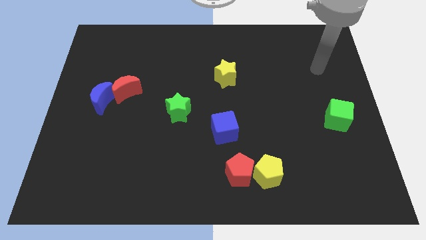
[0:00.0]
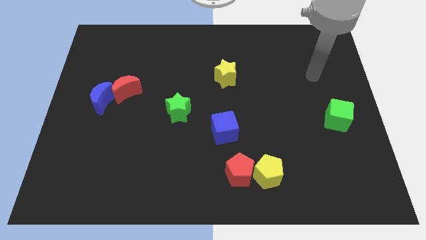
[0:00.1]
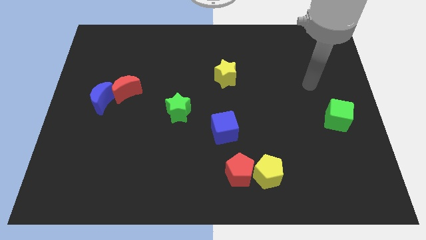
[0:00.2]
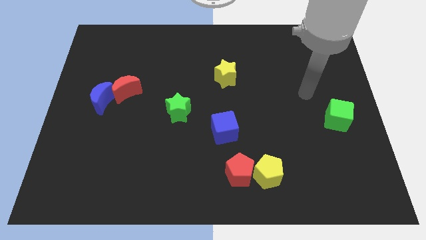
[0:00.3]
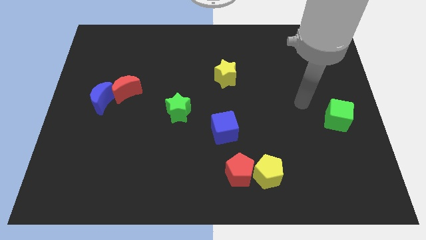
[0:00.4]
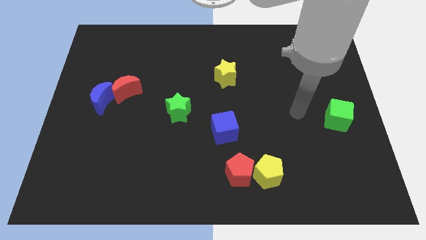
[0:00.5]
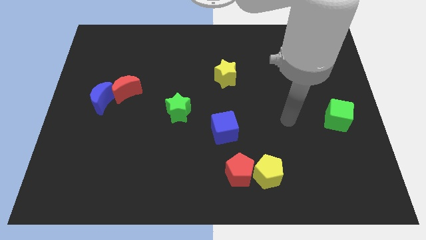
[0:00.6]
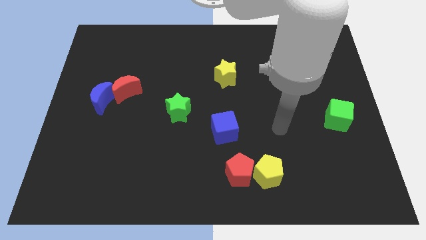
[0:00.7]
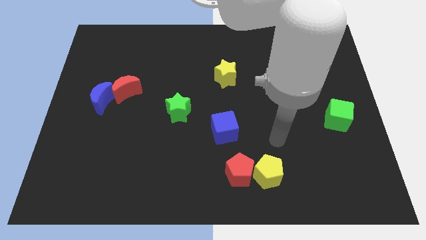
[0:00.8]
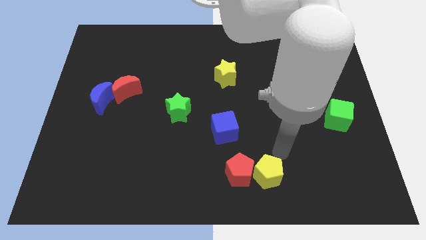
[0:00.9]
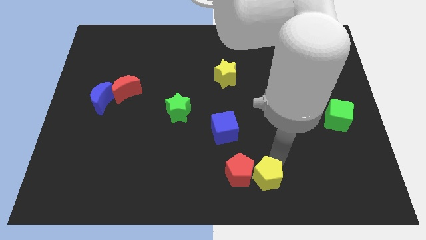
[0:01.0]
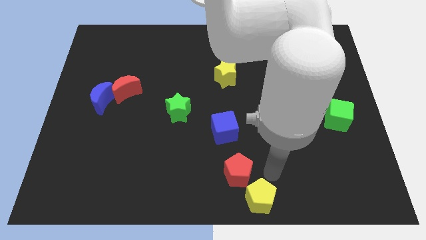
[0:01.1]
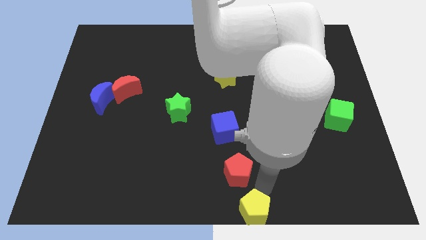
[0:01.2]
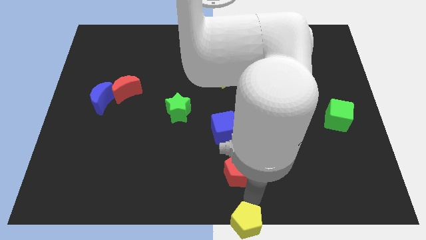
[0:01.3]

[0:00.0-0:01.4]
pull the red pentagon apart from the yellow pentagon

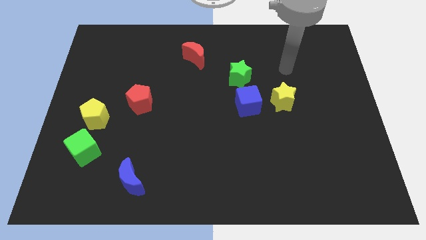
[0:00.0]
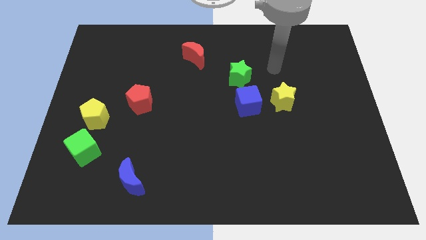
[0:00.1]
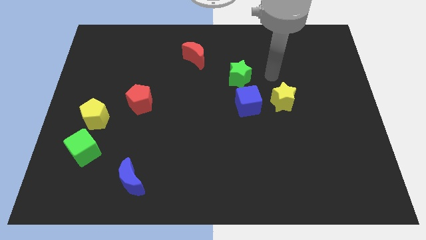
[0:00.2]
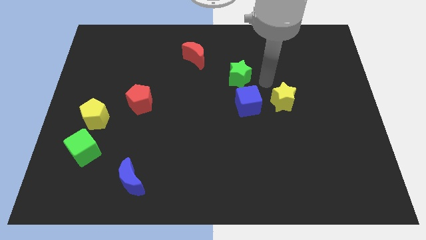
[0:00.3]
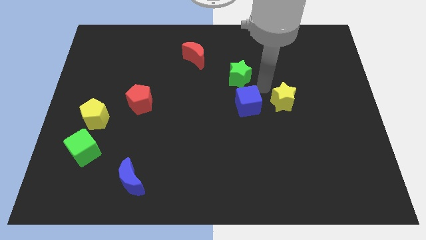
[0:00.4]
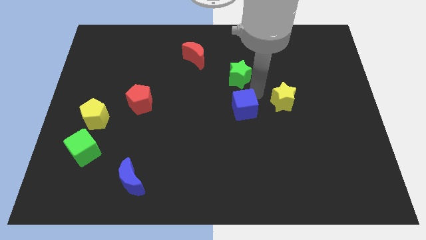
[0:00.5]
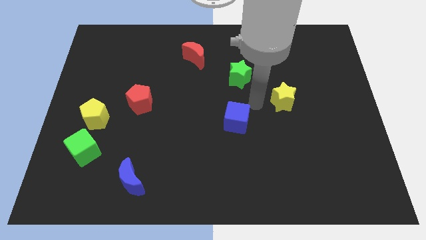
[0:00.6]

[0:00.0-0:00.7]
move the yellow star away from the blue cube

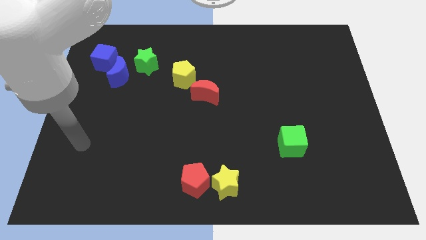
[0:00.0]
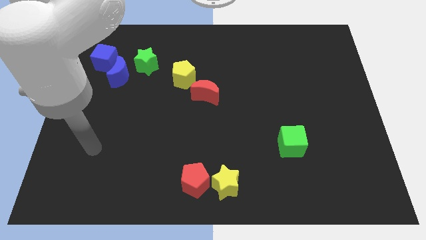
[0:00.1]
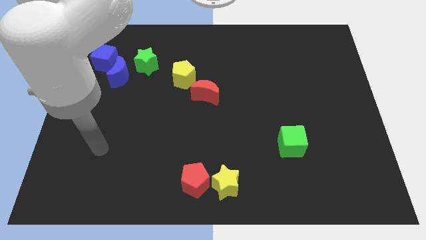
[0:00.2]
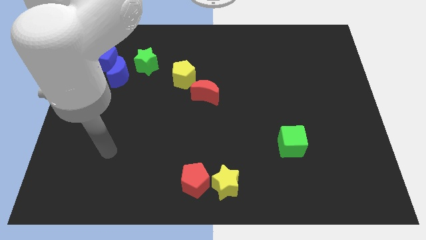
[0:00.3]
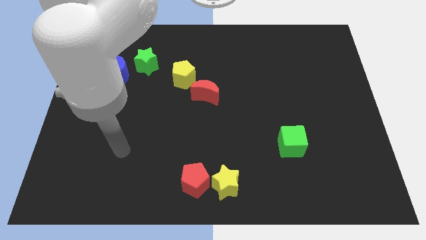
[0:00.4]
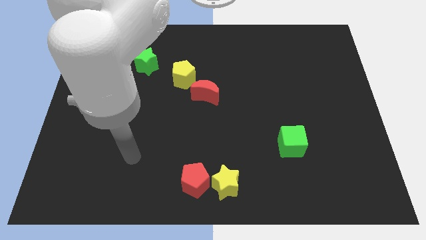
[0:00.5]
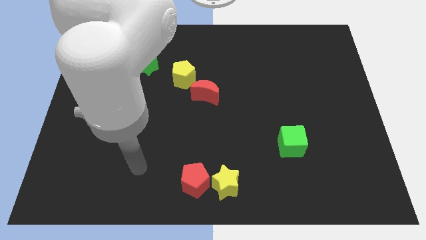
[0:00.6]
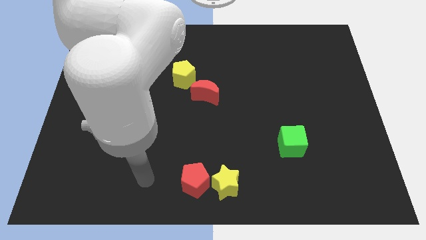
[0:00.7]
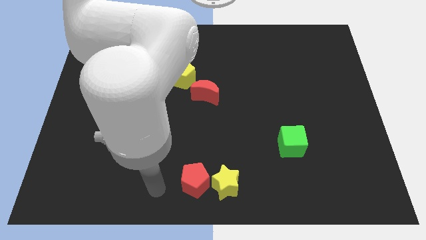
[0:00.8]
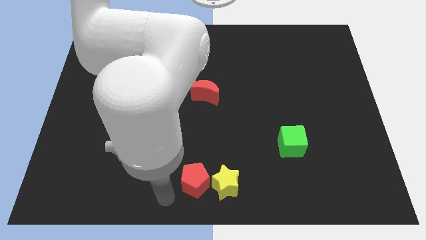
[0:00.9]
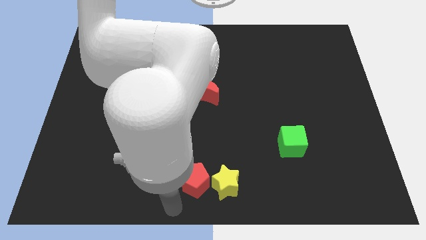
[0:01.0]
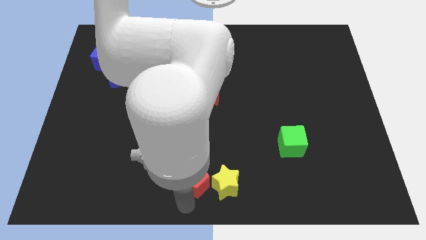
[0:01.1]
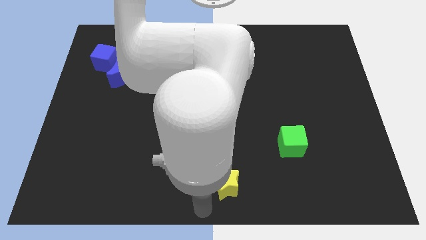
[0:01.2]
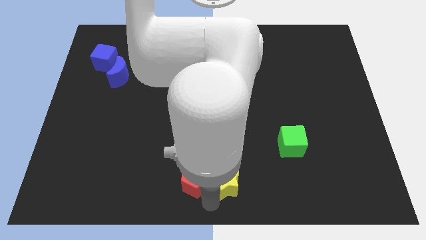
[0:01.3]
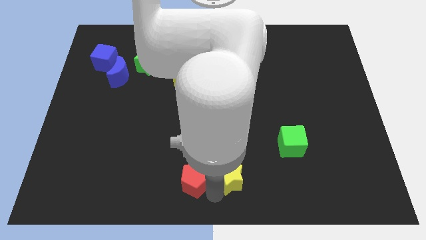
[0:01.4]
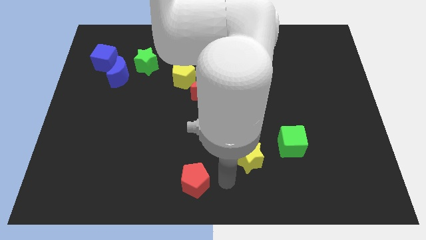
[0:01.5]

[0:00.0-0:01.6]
move the red pentagon away from the yellow star

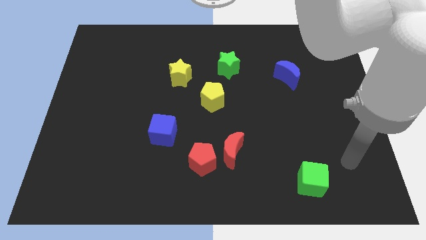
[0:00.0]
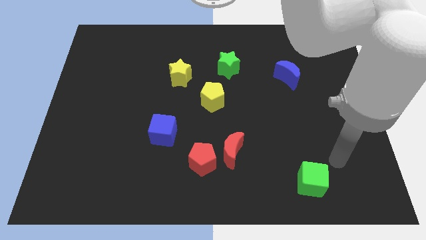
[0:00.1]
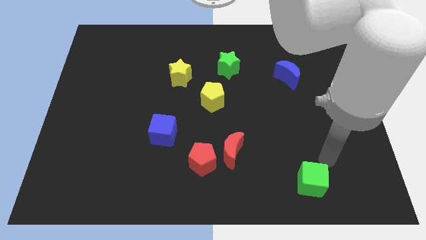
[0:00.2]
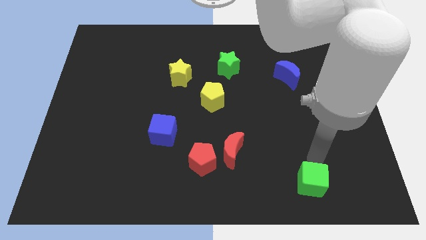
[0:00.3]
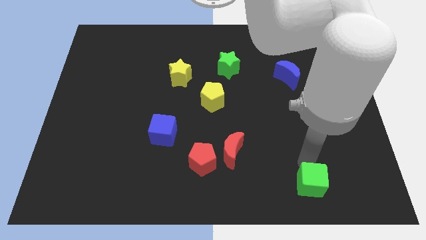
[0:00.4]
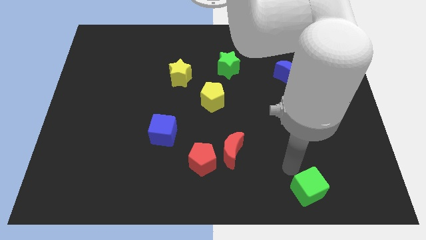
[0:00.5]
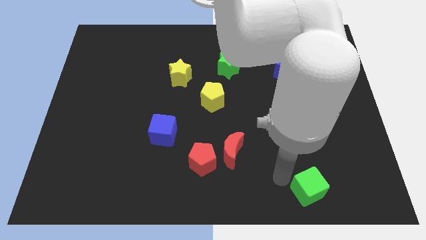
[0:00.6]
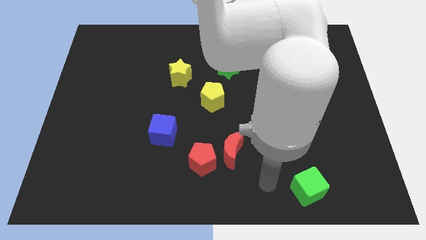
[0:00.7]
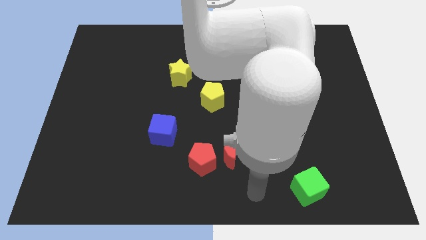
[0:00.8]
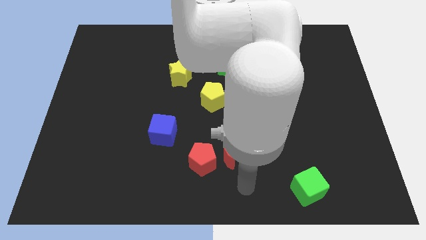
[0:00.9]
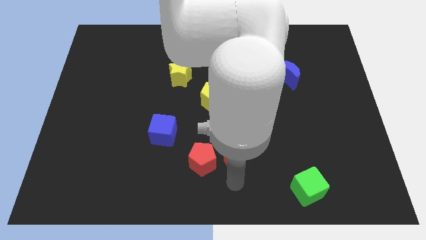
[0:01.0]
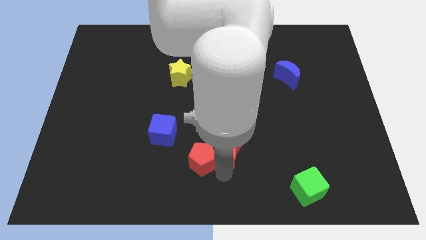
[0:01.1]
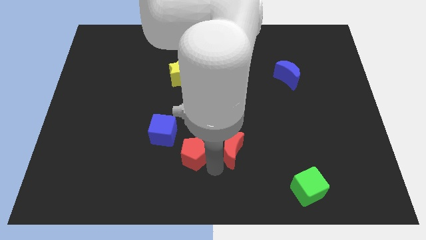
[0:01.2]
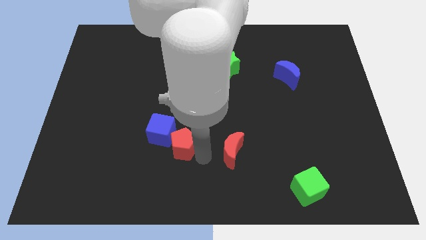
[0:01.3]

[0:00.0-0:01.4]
separate the red moon from the red pentagon

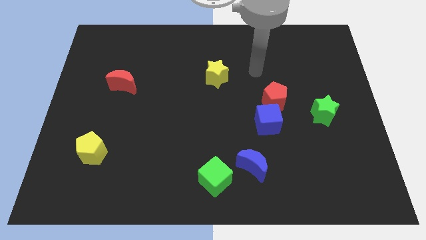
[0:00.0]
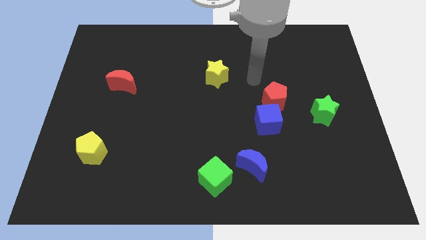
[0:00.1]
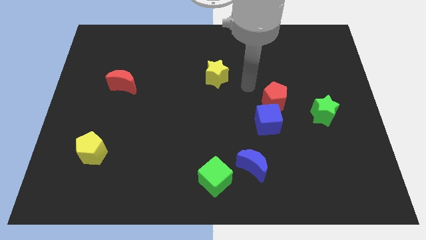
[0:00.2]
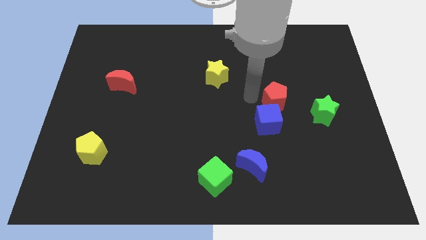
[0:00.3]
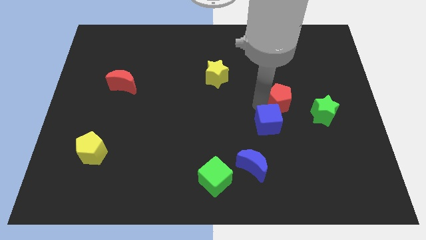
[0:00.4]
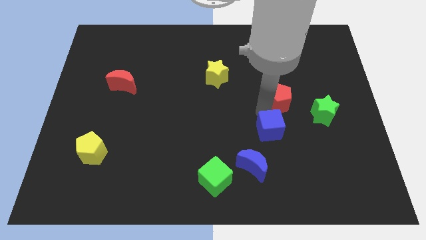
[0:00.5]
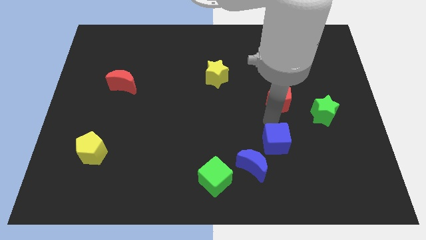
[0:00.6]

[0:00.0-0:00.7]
pull the red pentagon apart from the blue cube

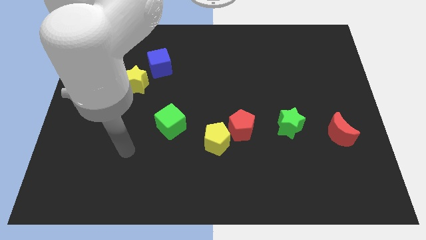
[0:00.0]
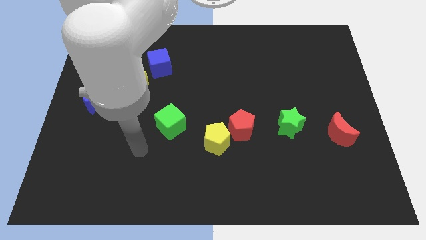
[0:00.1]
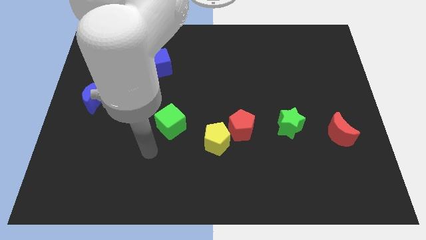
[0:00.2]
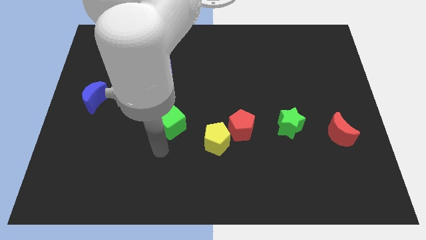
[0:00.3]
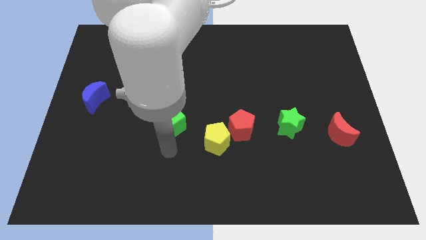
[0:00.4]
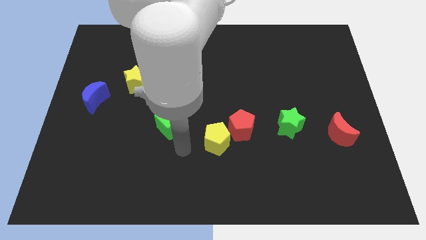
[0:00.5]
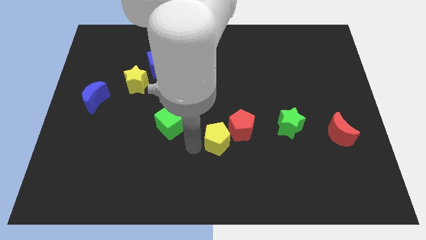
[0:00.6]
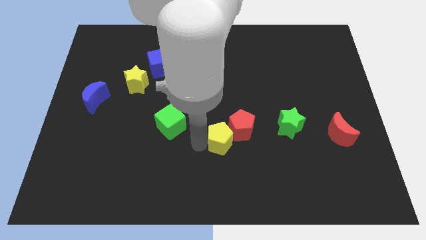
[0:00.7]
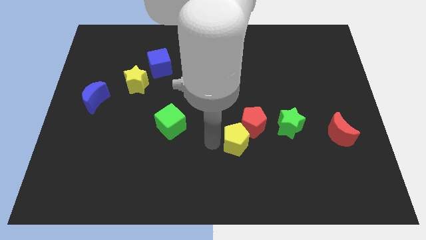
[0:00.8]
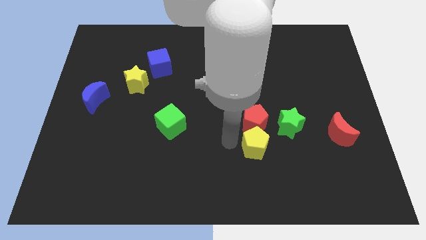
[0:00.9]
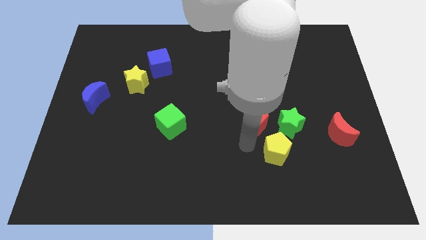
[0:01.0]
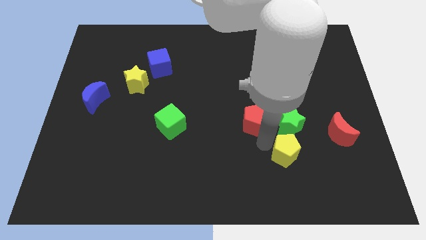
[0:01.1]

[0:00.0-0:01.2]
move the red pentagon away from the yellow pentagon

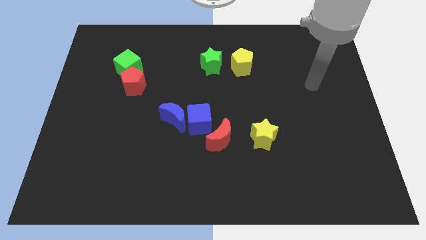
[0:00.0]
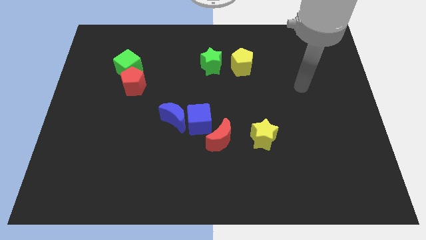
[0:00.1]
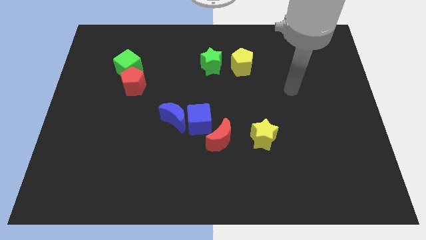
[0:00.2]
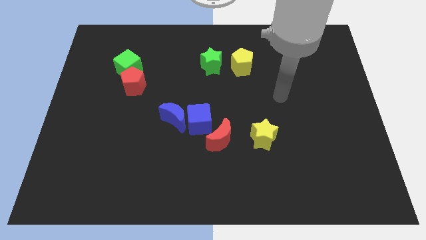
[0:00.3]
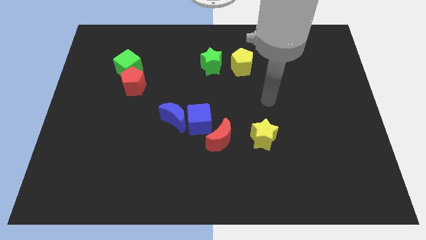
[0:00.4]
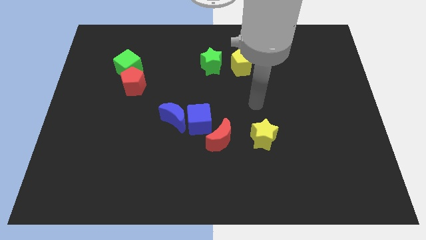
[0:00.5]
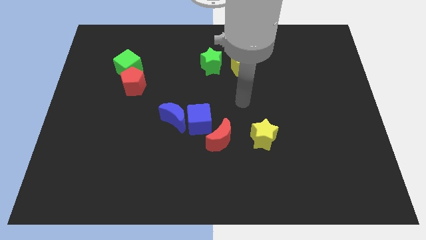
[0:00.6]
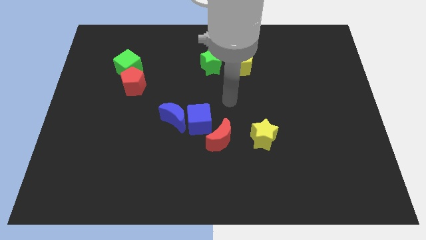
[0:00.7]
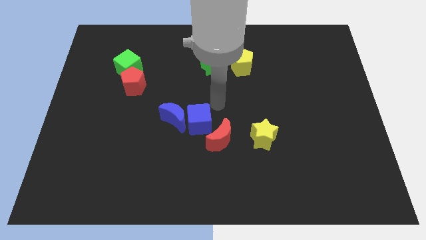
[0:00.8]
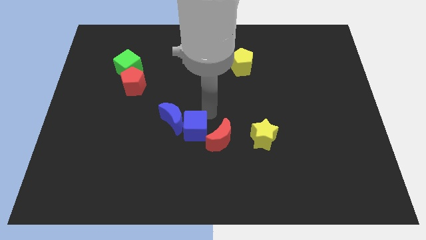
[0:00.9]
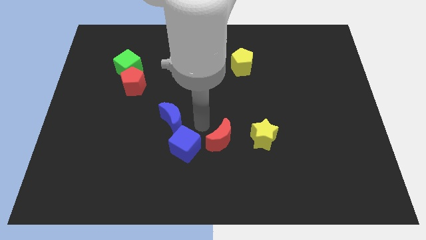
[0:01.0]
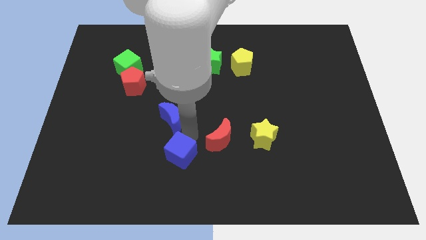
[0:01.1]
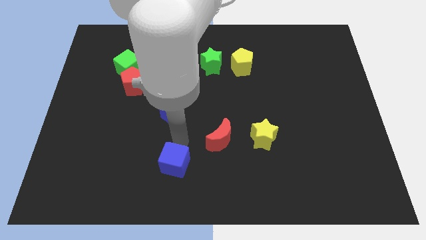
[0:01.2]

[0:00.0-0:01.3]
pull the blue moon apart from the blue cube

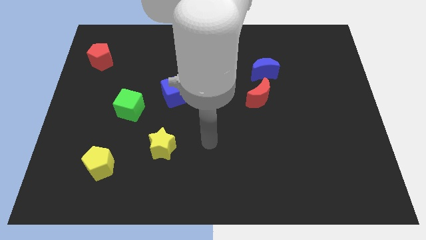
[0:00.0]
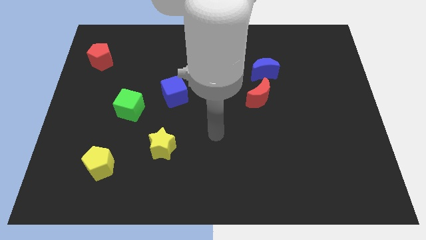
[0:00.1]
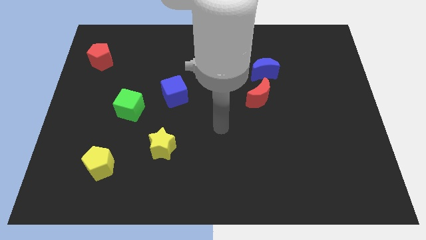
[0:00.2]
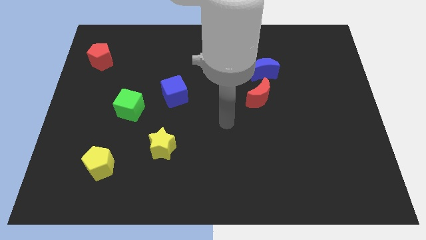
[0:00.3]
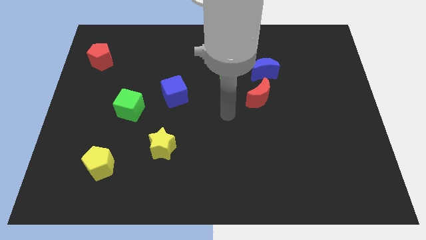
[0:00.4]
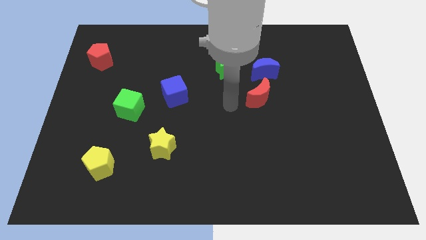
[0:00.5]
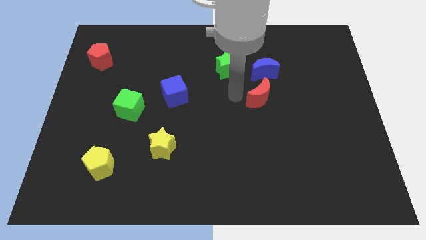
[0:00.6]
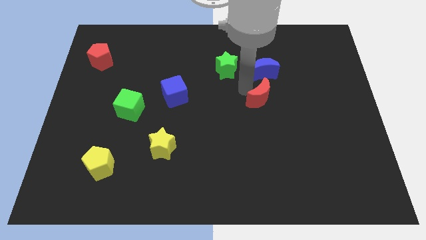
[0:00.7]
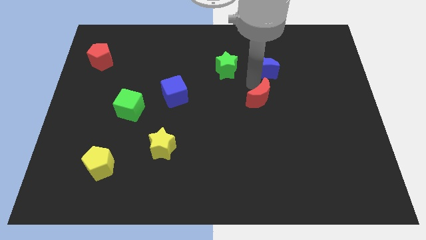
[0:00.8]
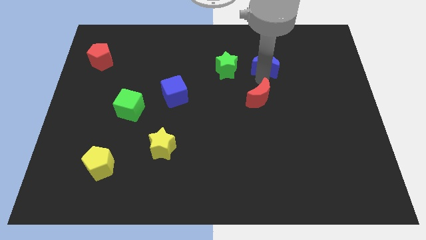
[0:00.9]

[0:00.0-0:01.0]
move the red moon away from the blue moon
